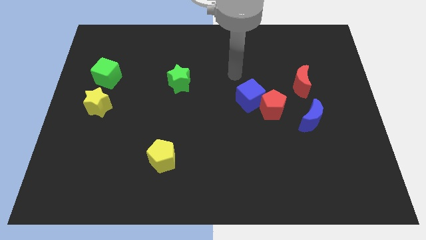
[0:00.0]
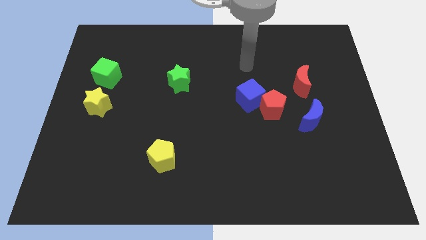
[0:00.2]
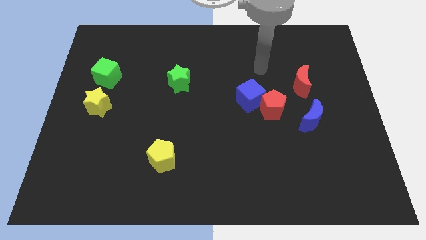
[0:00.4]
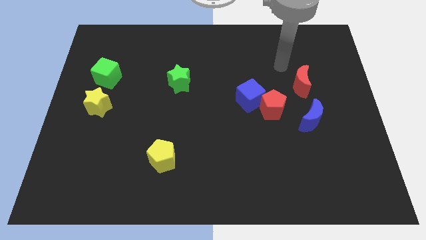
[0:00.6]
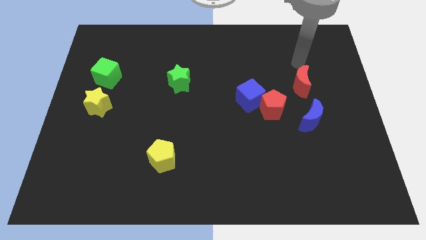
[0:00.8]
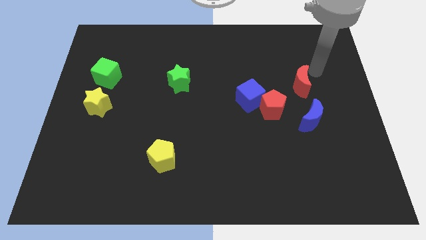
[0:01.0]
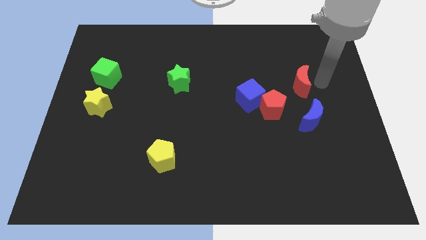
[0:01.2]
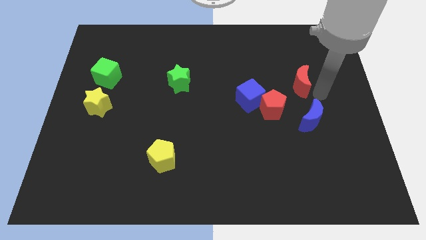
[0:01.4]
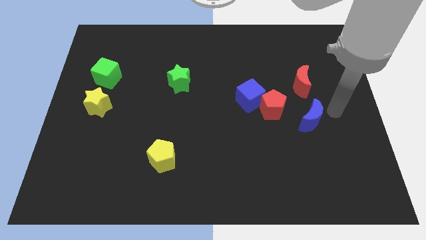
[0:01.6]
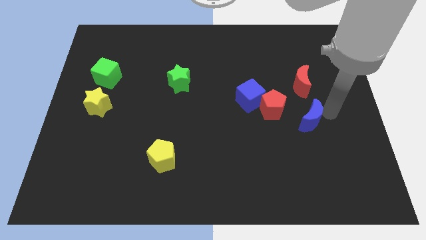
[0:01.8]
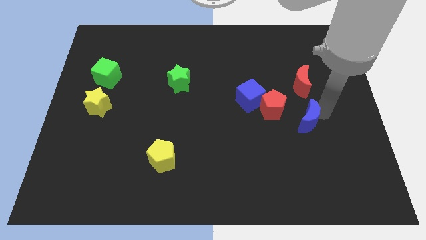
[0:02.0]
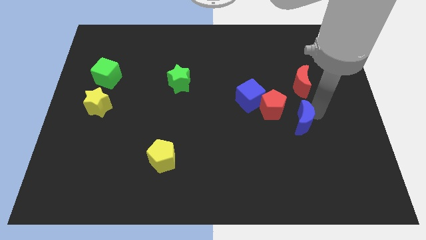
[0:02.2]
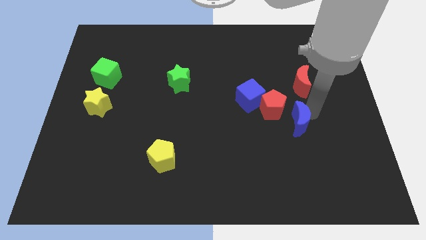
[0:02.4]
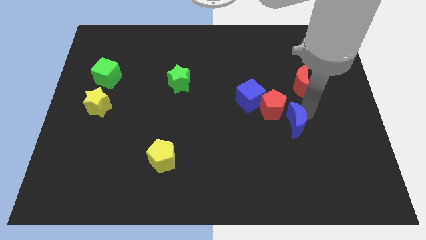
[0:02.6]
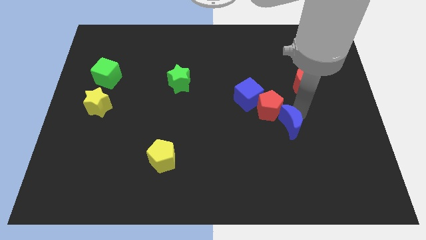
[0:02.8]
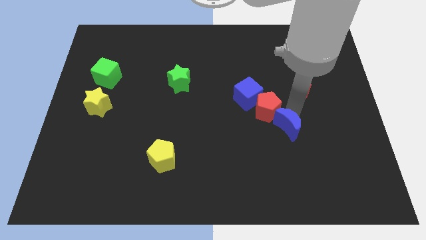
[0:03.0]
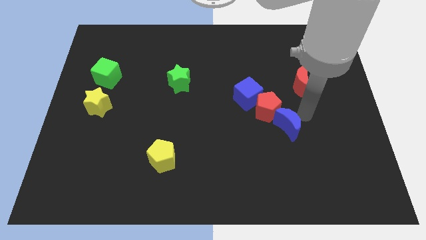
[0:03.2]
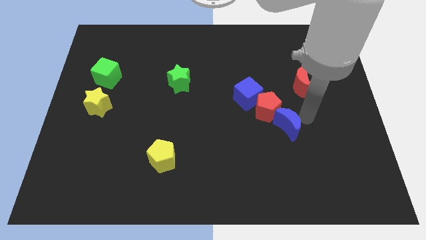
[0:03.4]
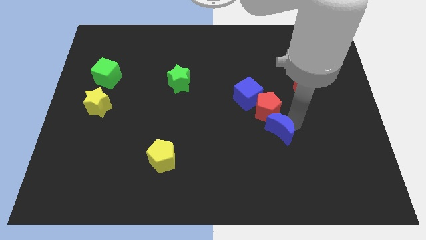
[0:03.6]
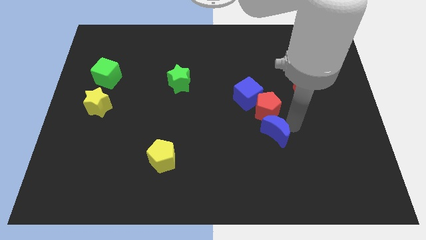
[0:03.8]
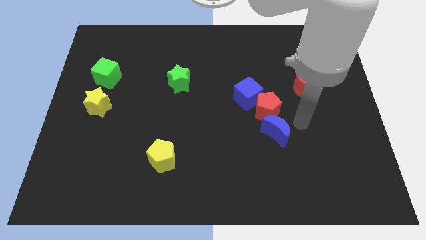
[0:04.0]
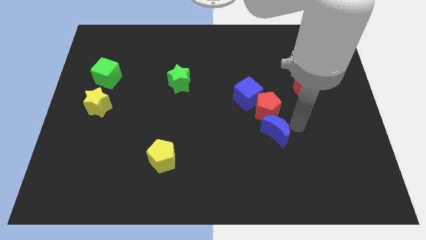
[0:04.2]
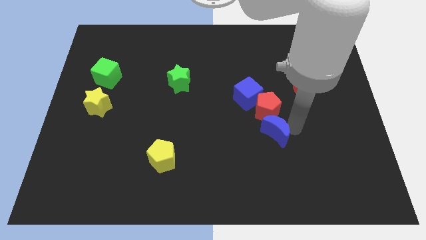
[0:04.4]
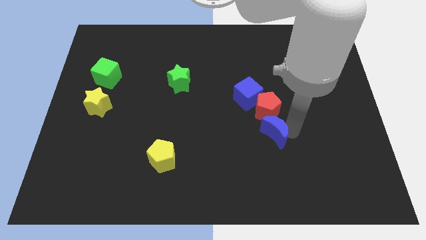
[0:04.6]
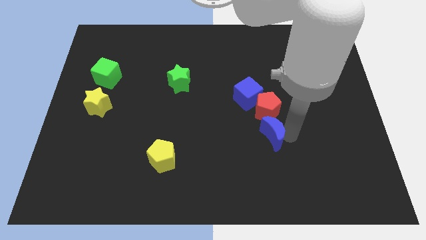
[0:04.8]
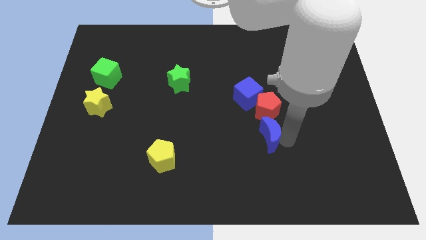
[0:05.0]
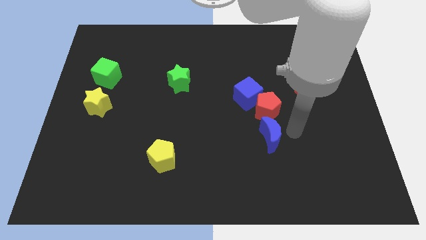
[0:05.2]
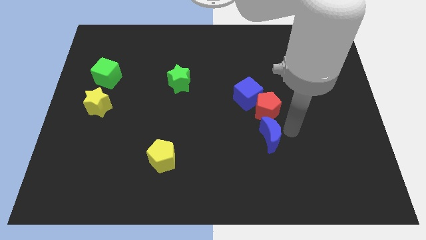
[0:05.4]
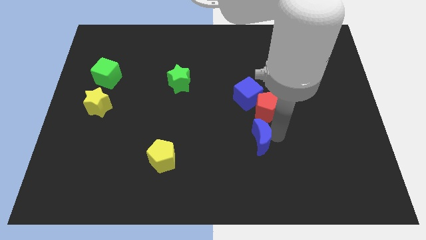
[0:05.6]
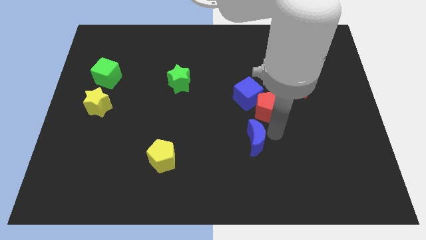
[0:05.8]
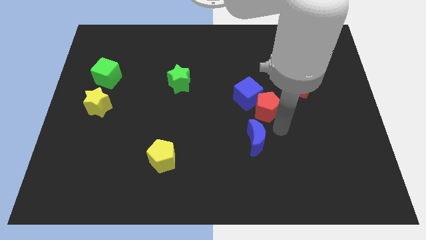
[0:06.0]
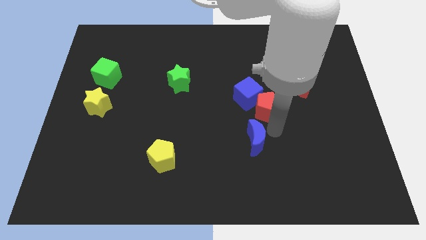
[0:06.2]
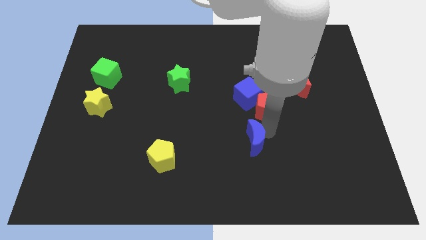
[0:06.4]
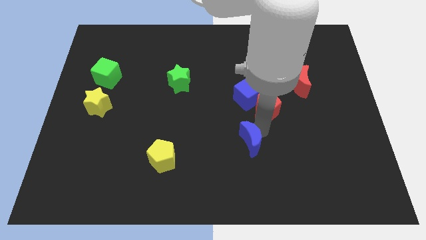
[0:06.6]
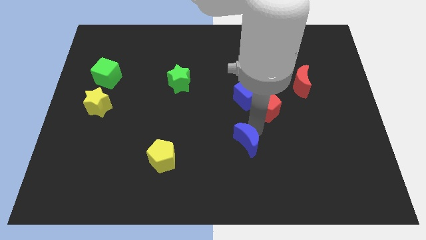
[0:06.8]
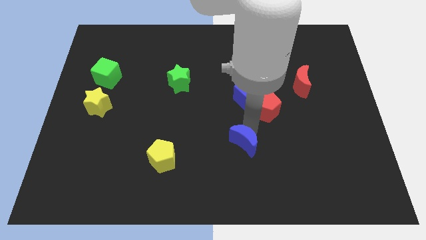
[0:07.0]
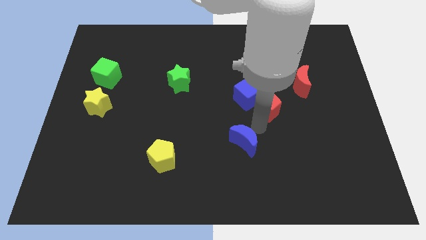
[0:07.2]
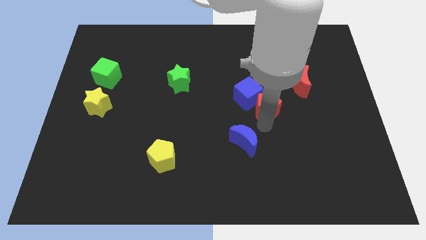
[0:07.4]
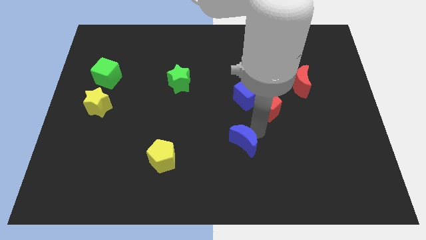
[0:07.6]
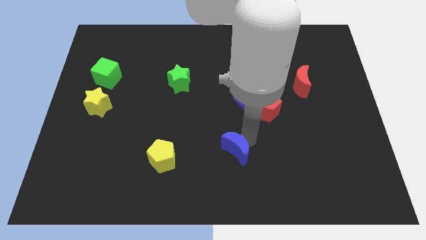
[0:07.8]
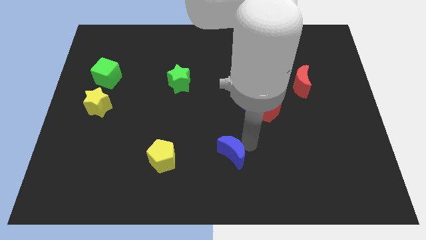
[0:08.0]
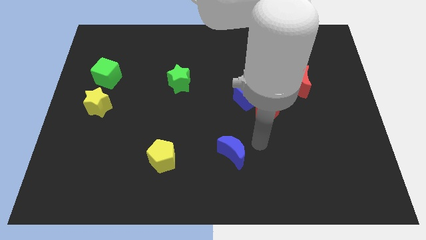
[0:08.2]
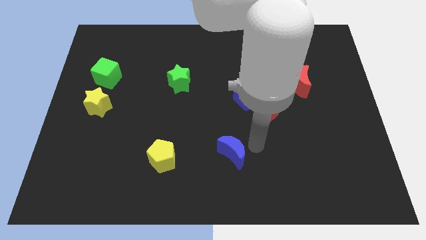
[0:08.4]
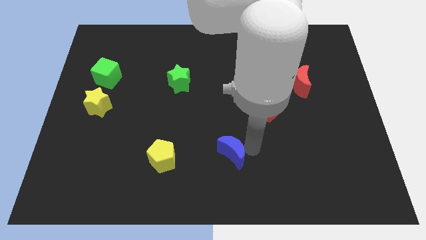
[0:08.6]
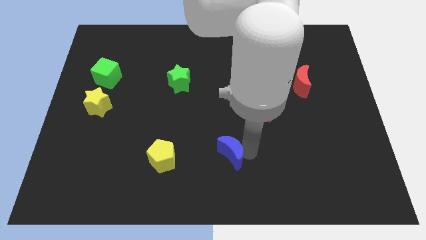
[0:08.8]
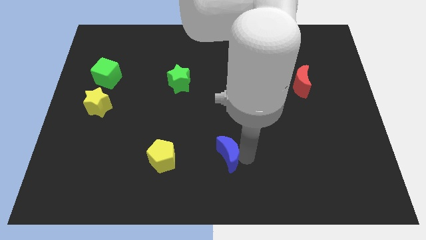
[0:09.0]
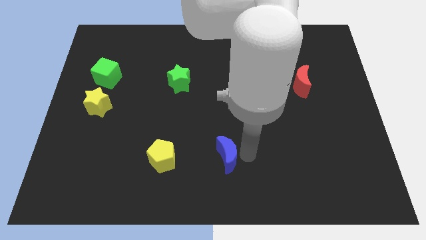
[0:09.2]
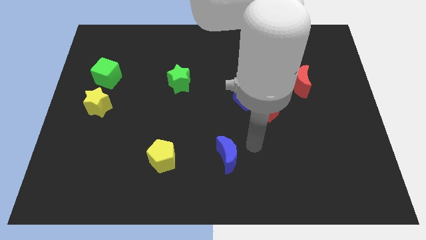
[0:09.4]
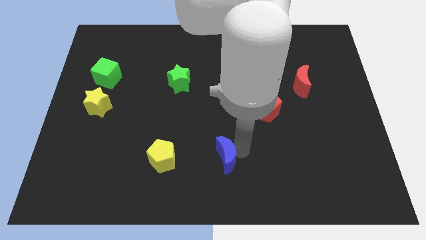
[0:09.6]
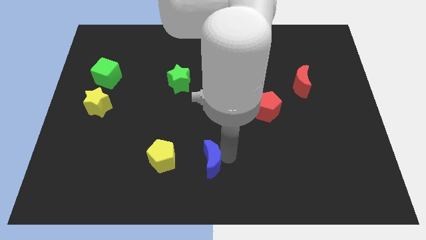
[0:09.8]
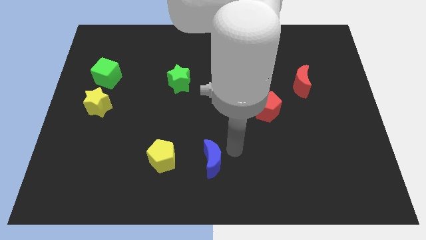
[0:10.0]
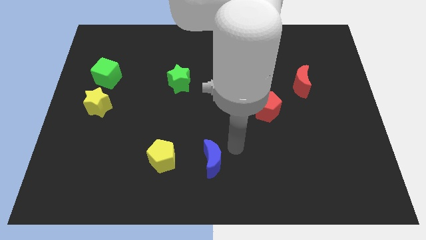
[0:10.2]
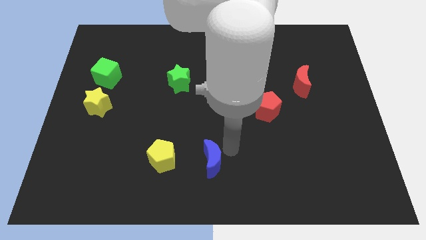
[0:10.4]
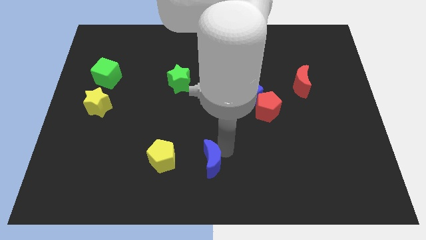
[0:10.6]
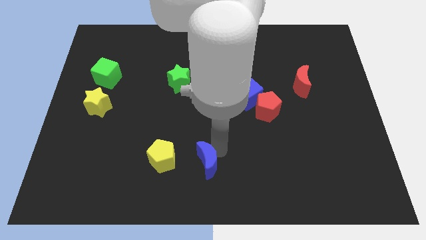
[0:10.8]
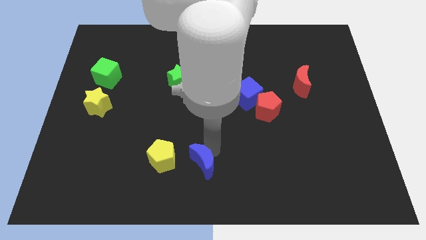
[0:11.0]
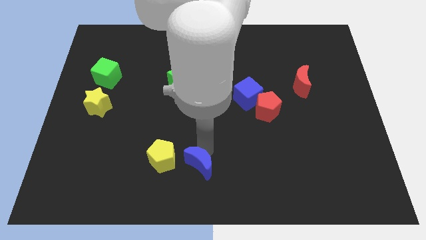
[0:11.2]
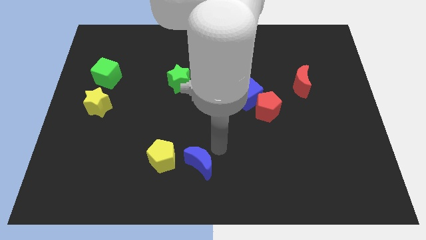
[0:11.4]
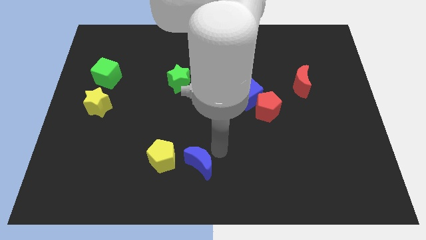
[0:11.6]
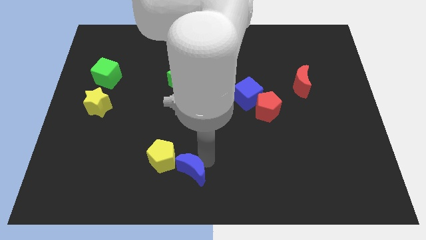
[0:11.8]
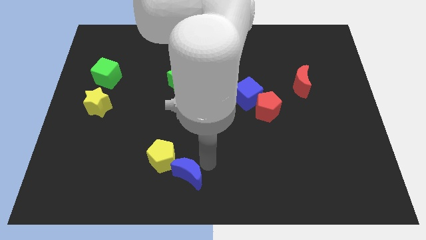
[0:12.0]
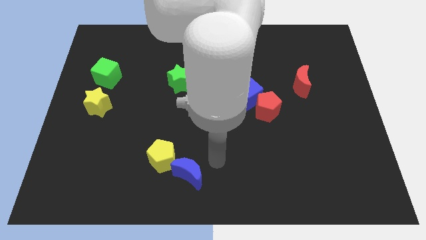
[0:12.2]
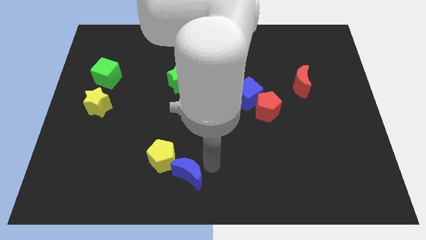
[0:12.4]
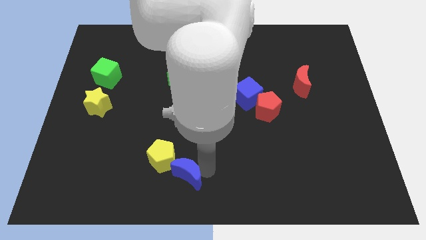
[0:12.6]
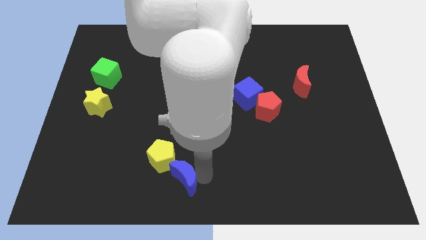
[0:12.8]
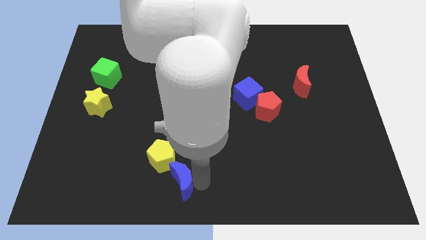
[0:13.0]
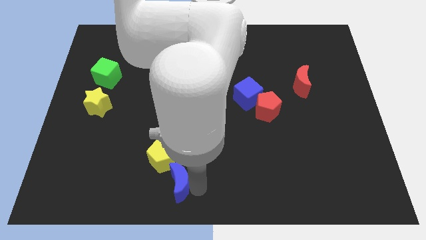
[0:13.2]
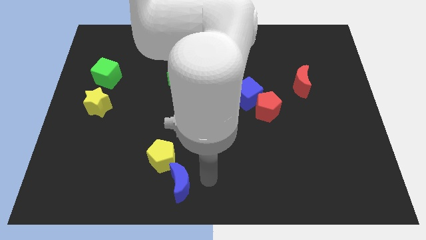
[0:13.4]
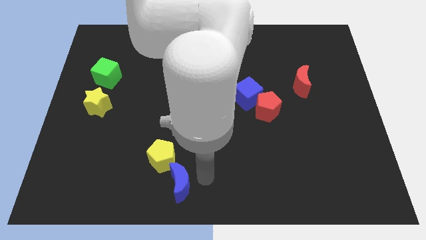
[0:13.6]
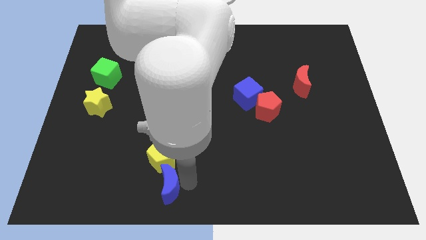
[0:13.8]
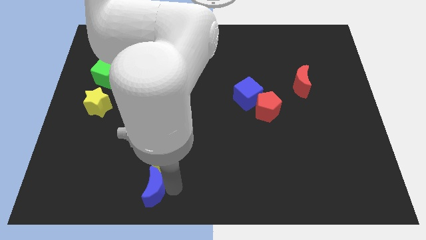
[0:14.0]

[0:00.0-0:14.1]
move the blue moon to the bottom left side of the yellow pentagon

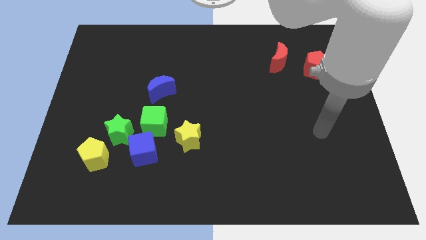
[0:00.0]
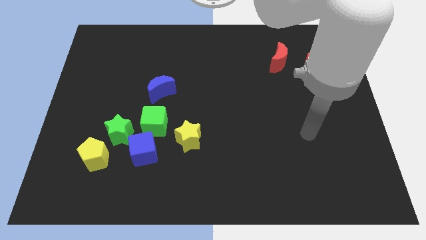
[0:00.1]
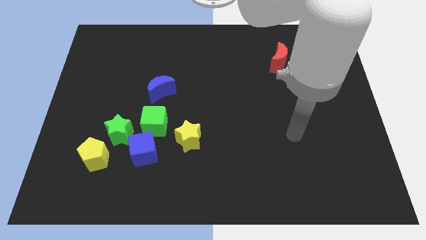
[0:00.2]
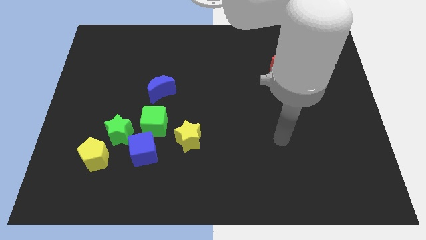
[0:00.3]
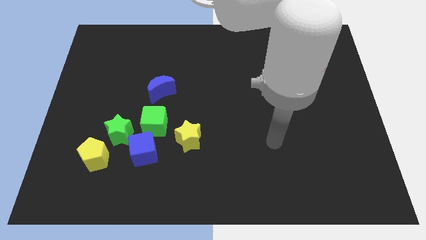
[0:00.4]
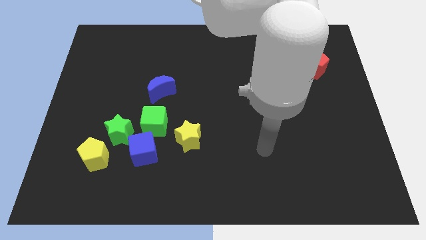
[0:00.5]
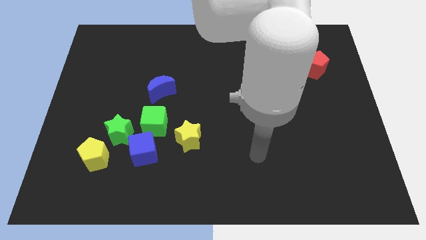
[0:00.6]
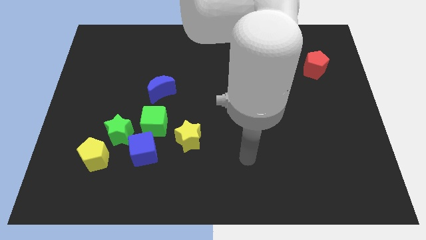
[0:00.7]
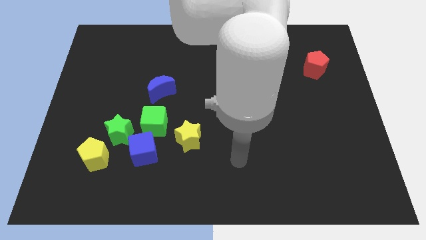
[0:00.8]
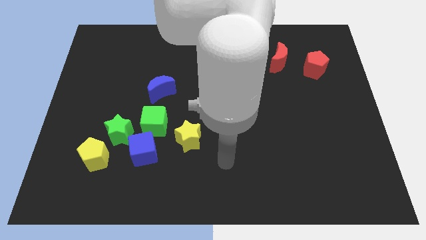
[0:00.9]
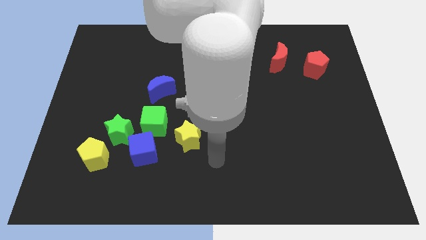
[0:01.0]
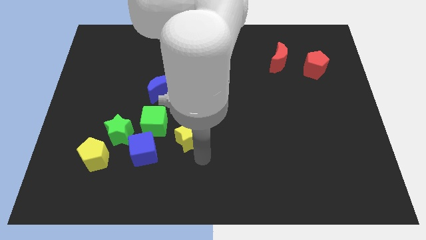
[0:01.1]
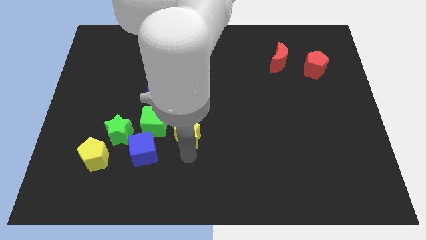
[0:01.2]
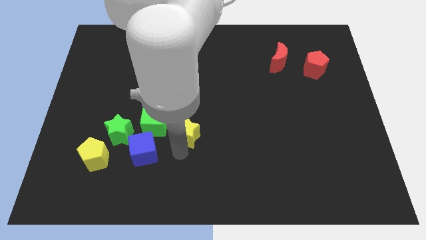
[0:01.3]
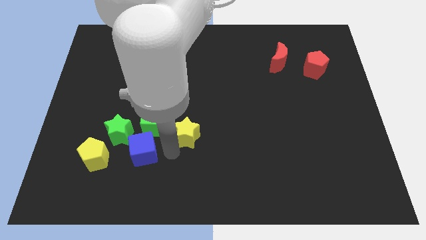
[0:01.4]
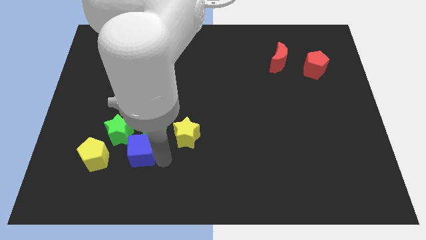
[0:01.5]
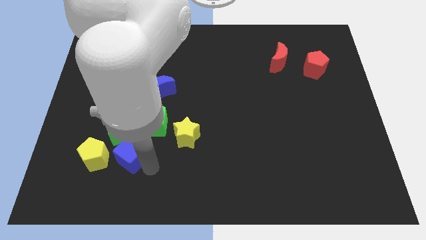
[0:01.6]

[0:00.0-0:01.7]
slide the green star to the top side of the blue cube
